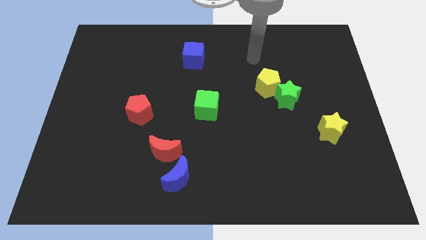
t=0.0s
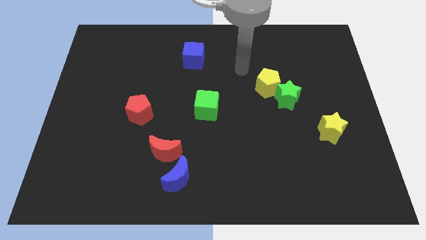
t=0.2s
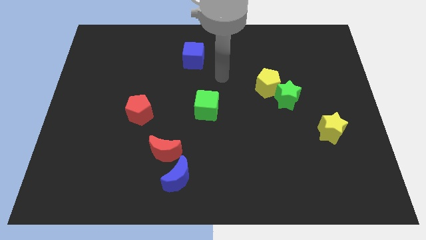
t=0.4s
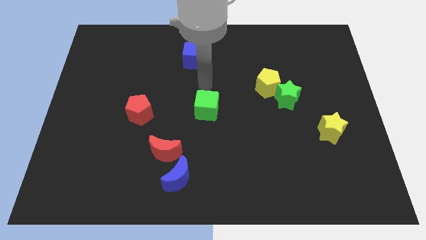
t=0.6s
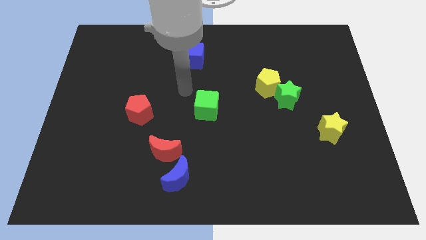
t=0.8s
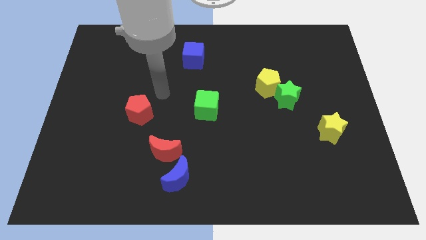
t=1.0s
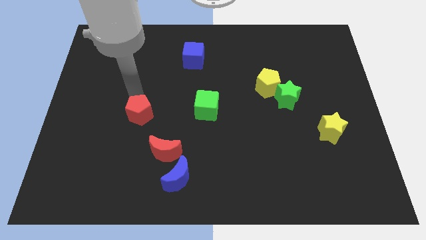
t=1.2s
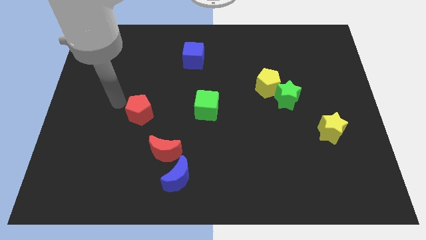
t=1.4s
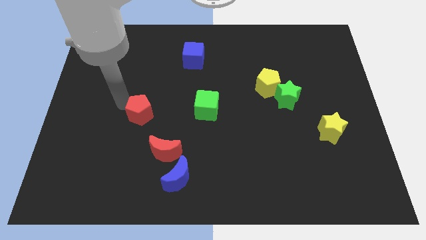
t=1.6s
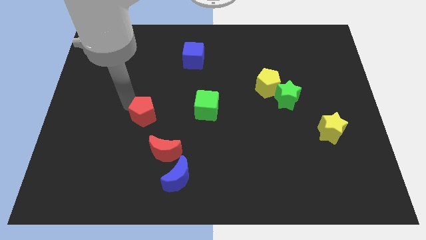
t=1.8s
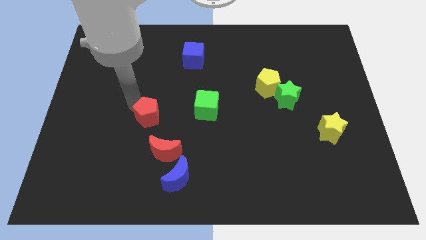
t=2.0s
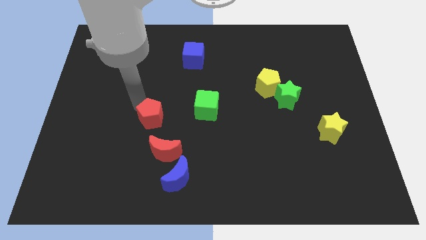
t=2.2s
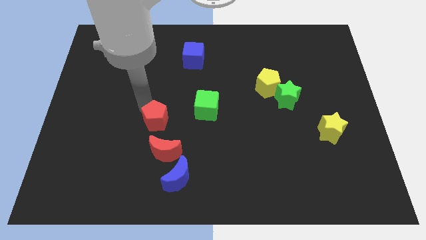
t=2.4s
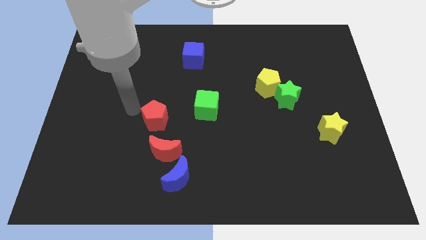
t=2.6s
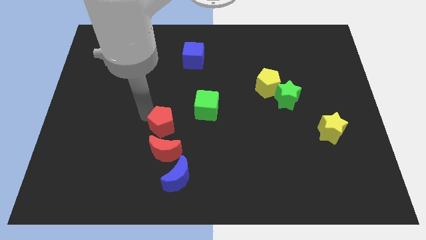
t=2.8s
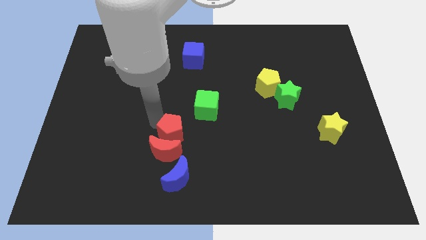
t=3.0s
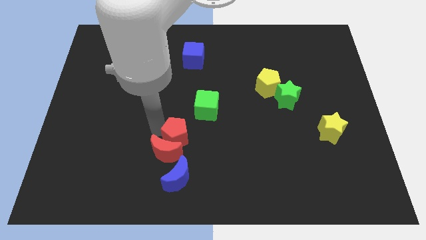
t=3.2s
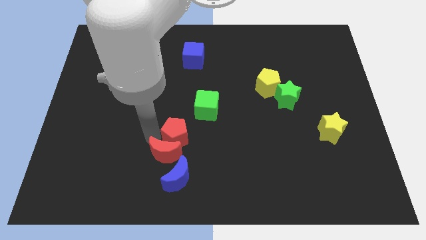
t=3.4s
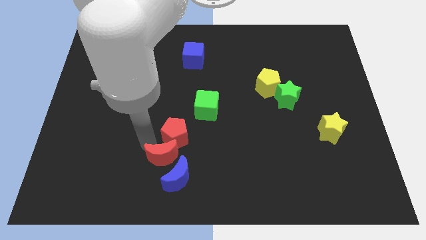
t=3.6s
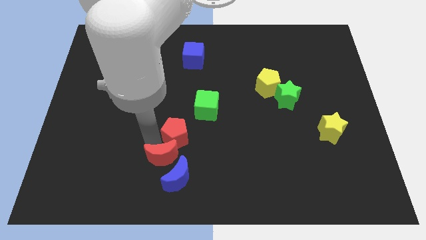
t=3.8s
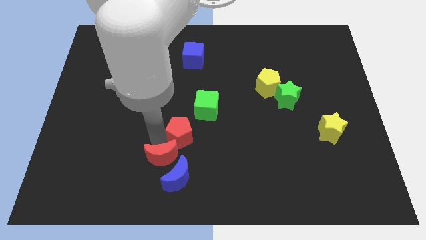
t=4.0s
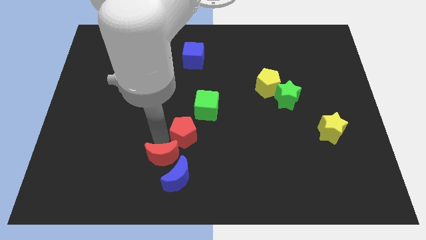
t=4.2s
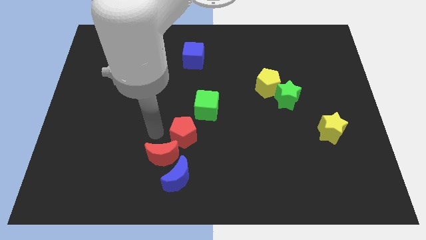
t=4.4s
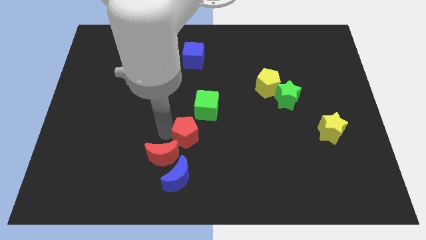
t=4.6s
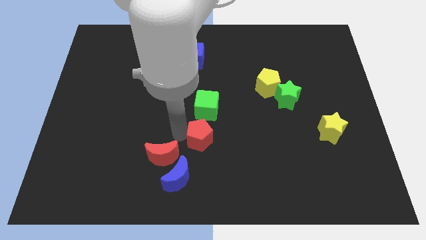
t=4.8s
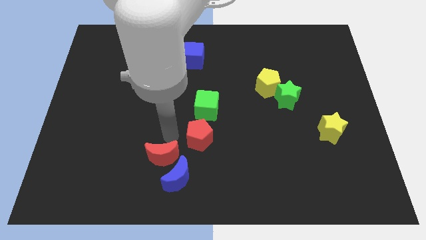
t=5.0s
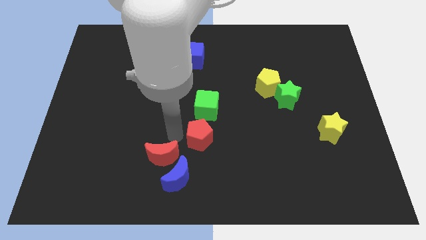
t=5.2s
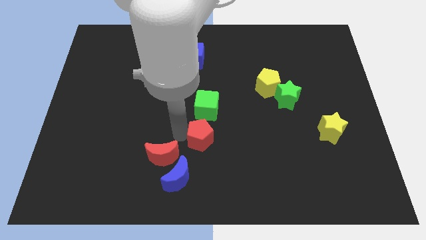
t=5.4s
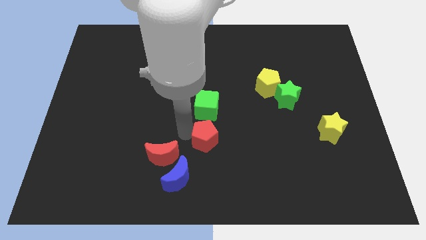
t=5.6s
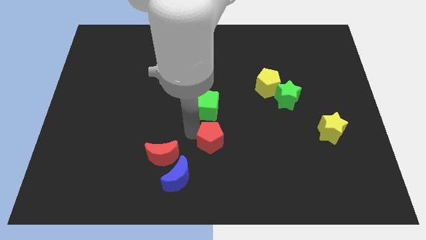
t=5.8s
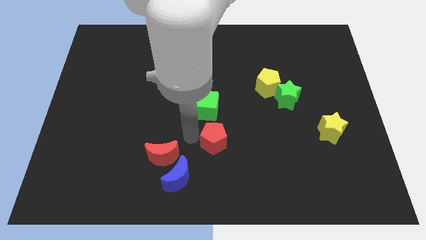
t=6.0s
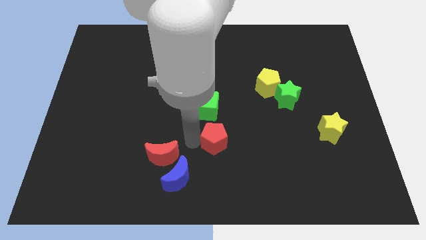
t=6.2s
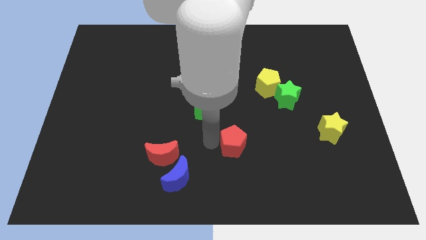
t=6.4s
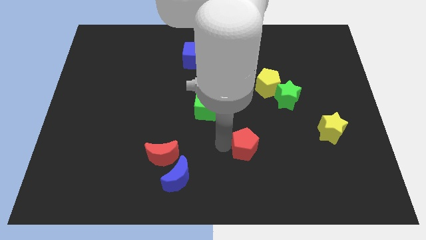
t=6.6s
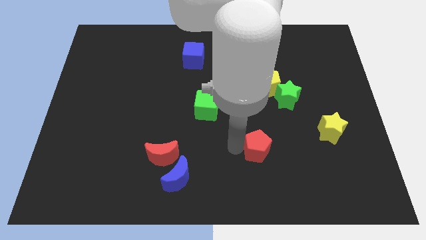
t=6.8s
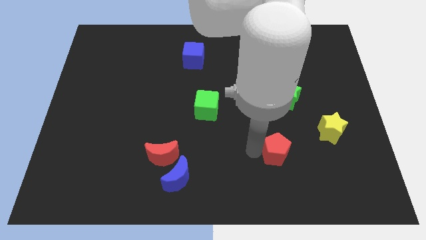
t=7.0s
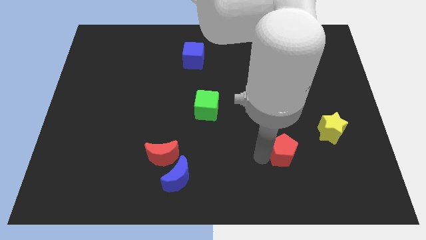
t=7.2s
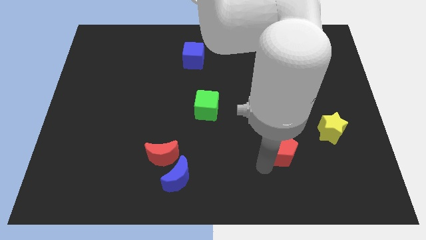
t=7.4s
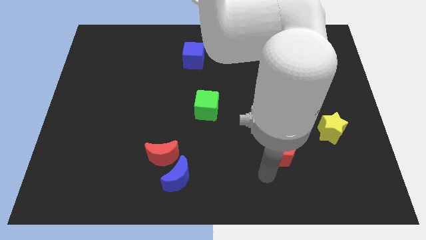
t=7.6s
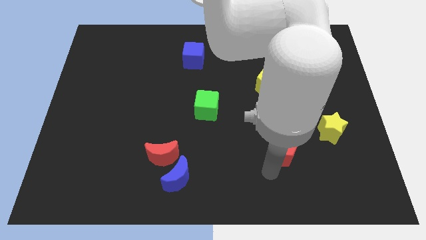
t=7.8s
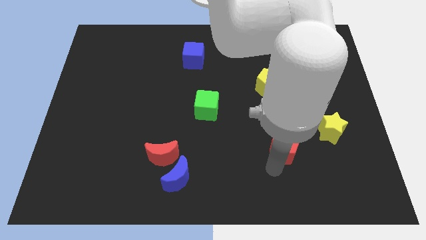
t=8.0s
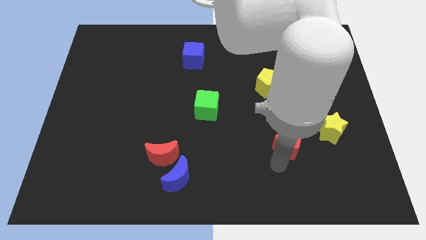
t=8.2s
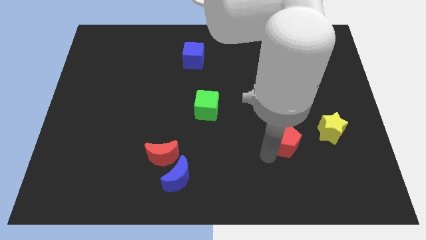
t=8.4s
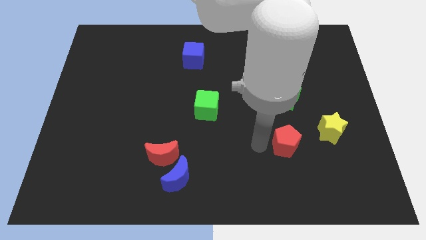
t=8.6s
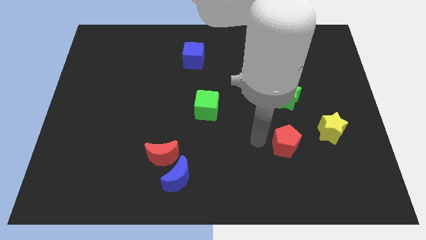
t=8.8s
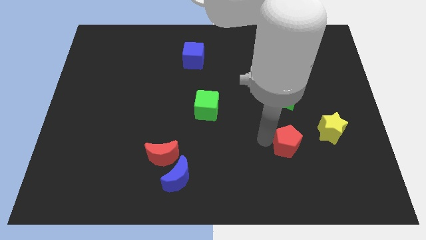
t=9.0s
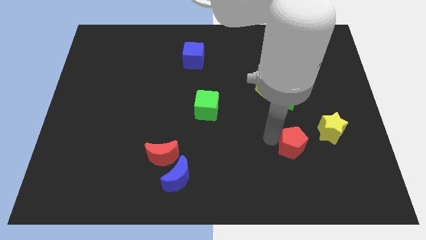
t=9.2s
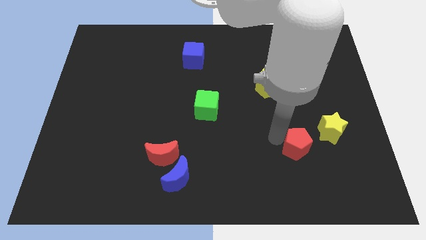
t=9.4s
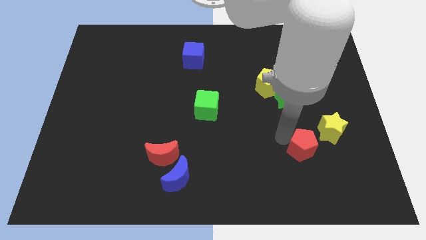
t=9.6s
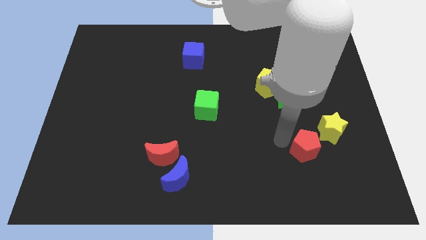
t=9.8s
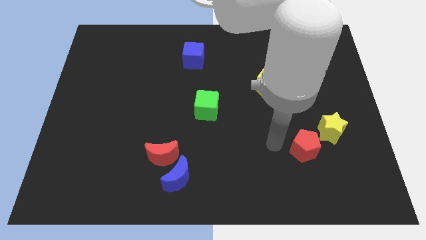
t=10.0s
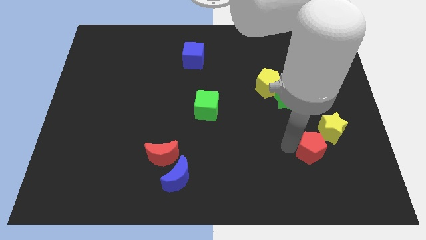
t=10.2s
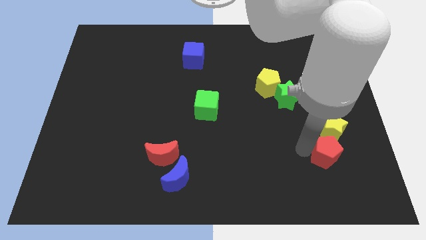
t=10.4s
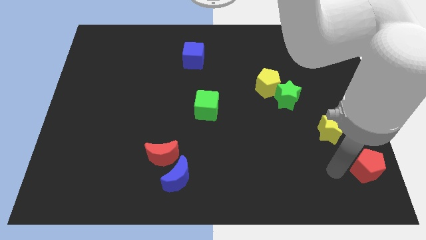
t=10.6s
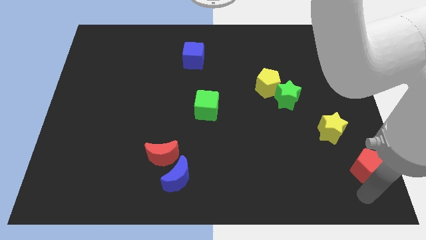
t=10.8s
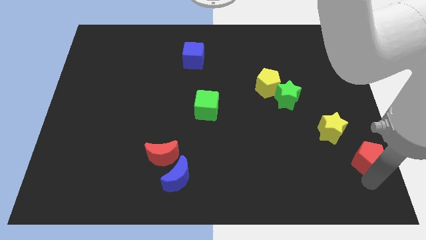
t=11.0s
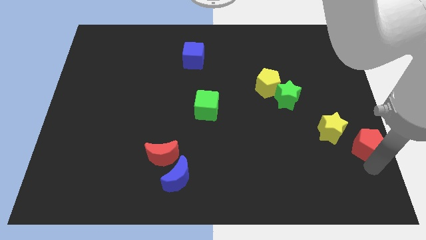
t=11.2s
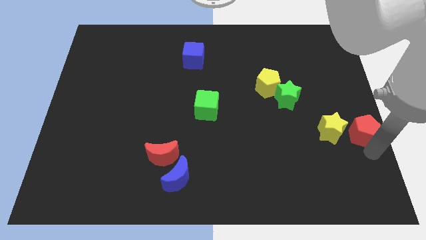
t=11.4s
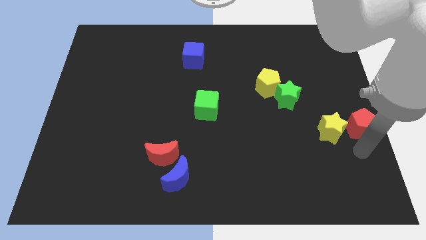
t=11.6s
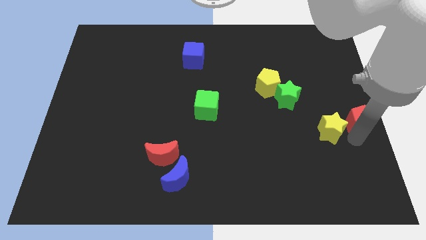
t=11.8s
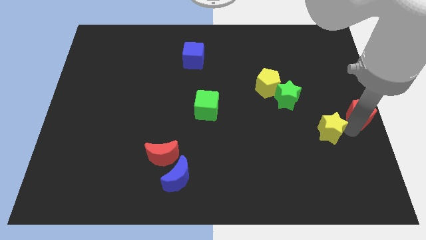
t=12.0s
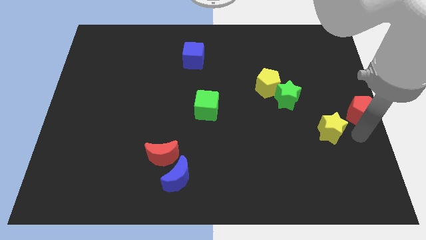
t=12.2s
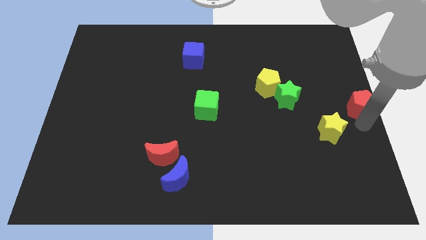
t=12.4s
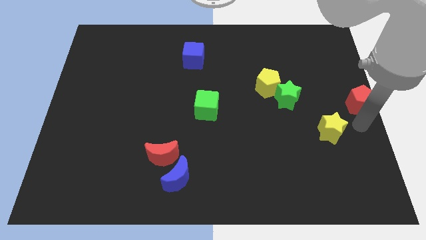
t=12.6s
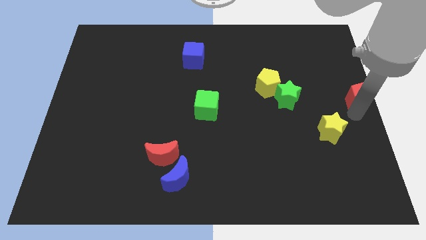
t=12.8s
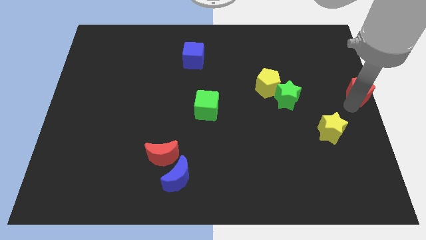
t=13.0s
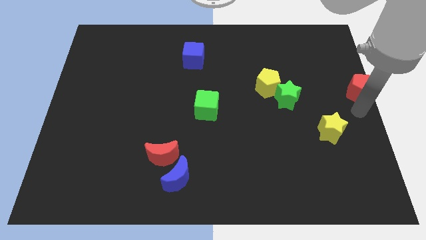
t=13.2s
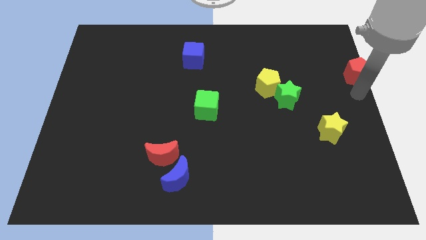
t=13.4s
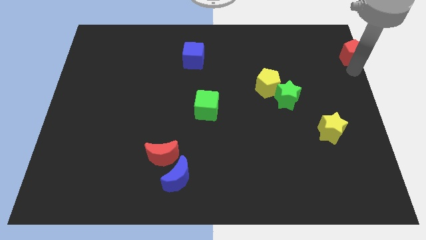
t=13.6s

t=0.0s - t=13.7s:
move the red pentagon to the top right corner

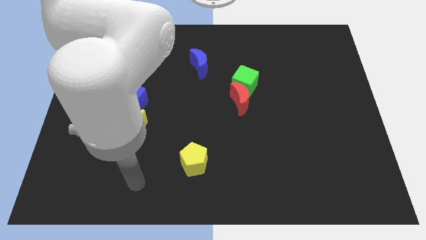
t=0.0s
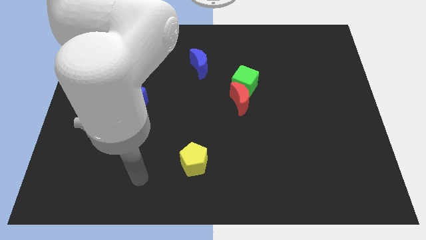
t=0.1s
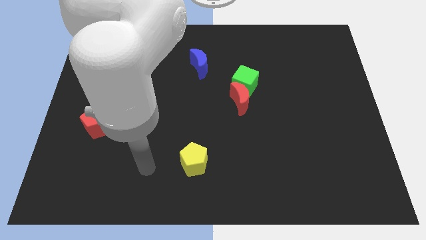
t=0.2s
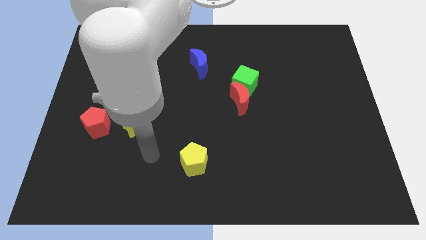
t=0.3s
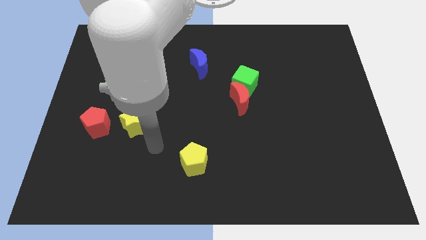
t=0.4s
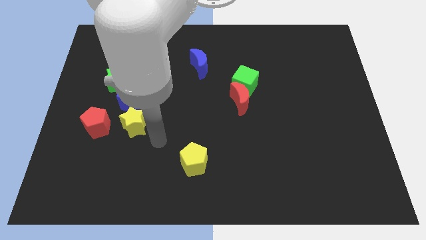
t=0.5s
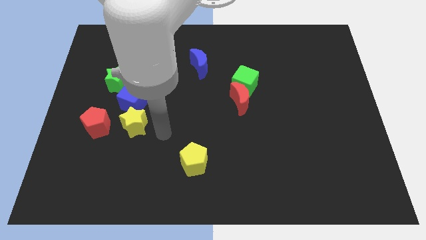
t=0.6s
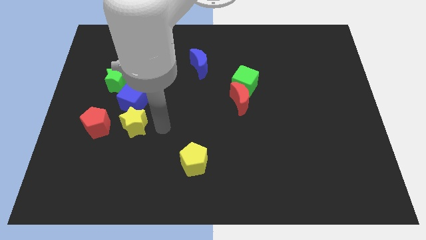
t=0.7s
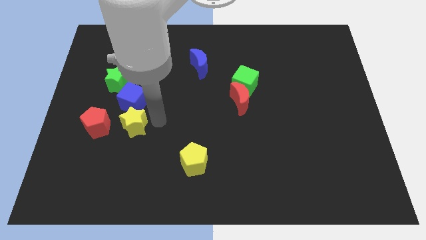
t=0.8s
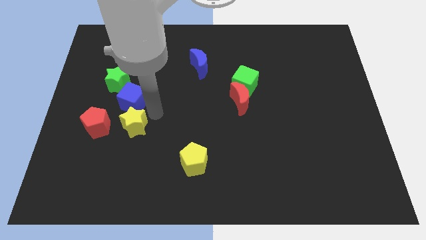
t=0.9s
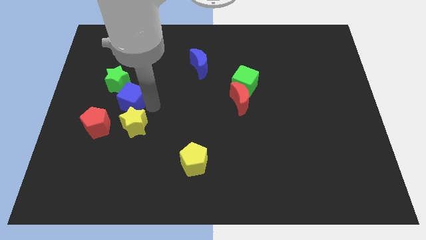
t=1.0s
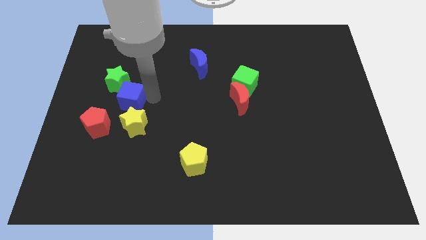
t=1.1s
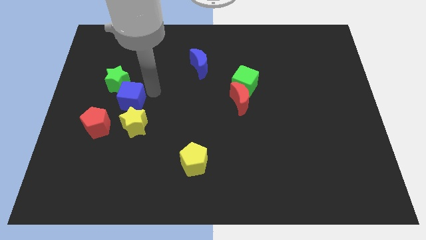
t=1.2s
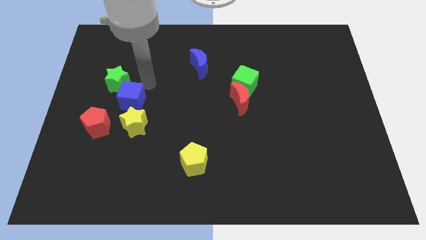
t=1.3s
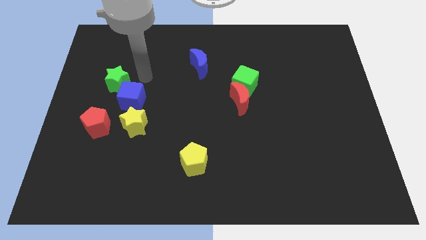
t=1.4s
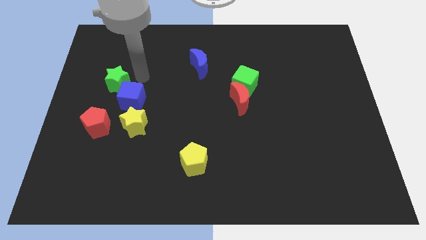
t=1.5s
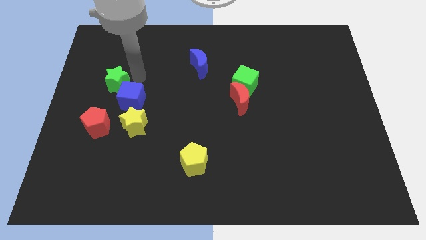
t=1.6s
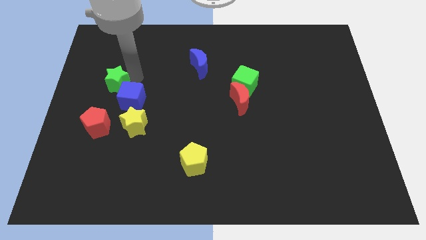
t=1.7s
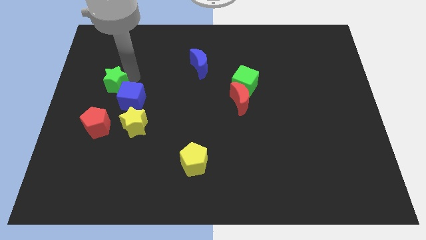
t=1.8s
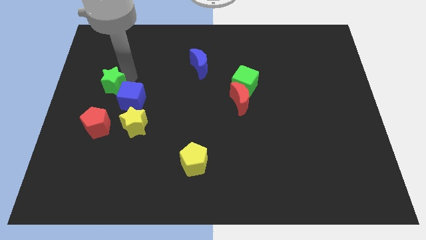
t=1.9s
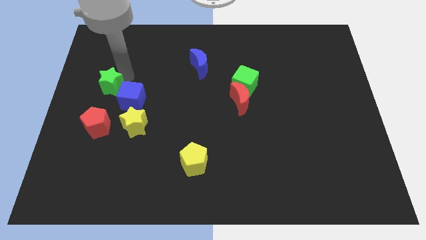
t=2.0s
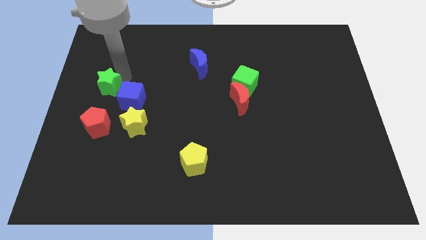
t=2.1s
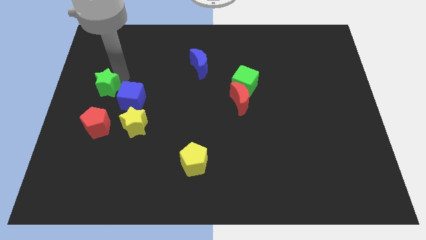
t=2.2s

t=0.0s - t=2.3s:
slide the green star to the center left
